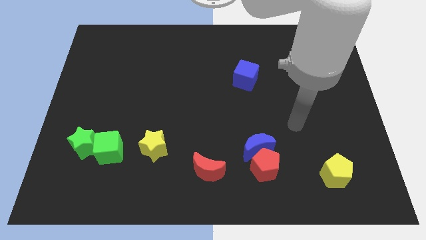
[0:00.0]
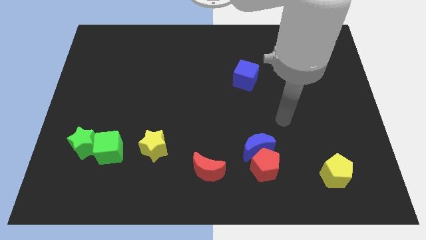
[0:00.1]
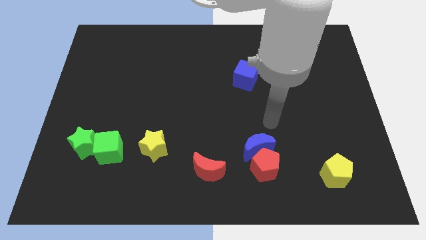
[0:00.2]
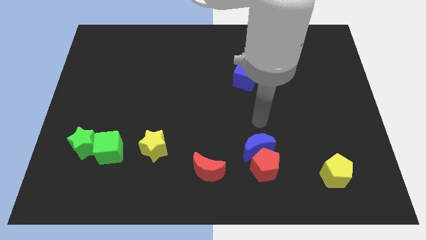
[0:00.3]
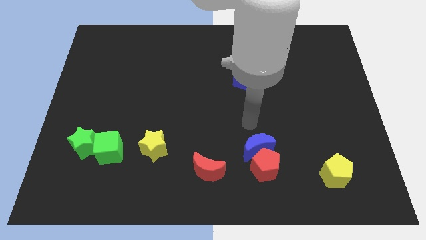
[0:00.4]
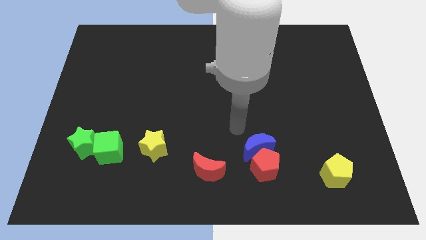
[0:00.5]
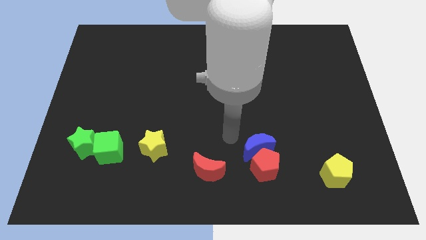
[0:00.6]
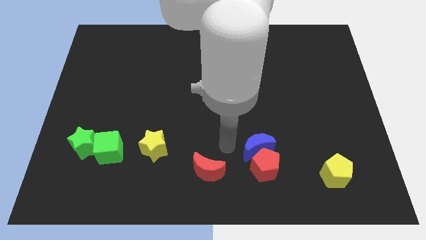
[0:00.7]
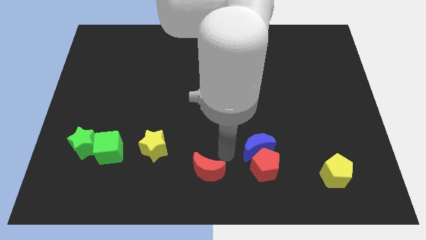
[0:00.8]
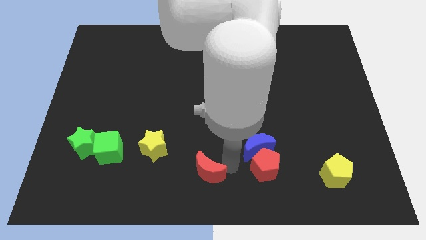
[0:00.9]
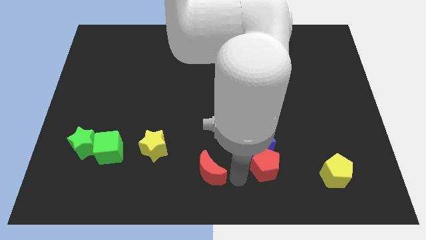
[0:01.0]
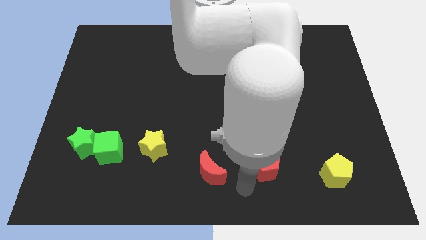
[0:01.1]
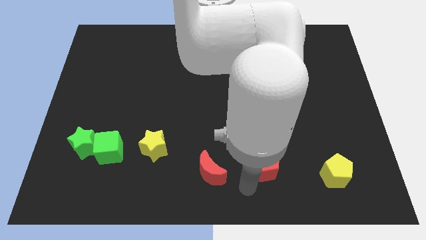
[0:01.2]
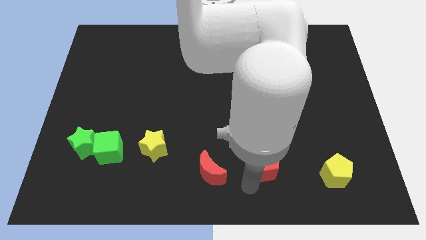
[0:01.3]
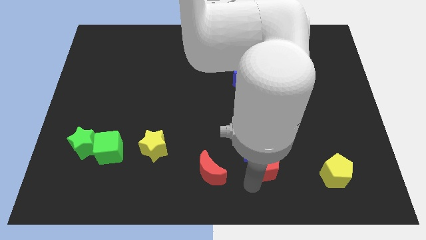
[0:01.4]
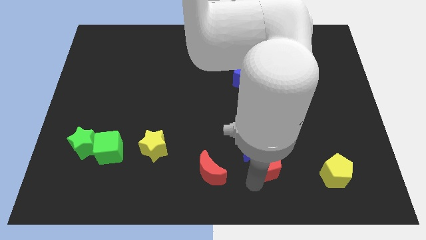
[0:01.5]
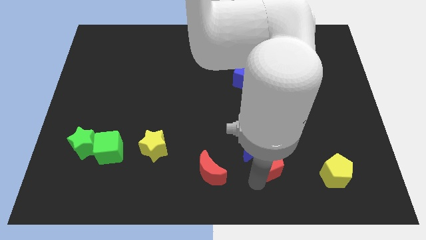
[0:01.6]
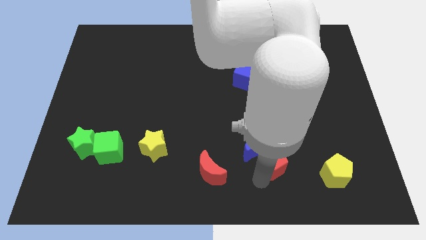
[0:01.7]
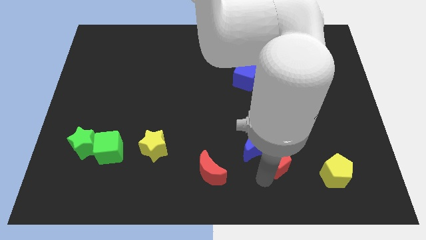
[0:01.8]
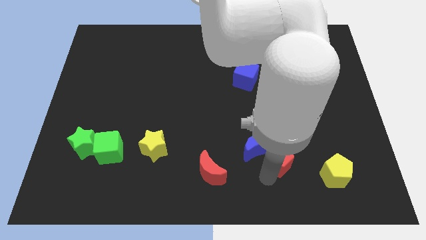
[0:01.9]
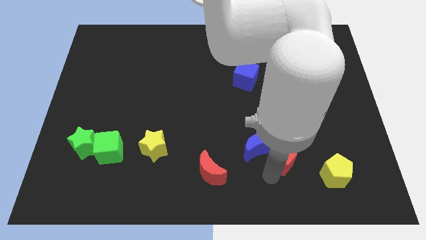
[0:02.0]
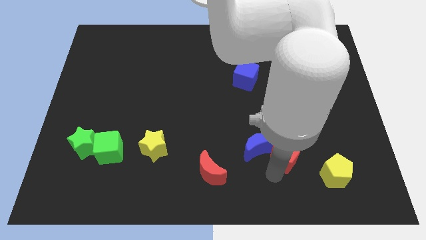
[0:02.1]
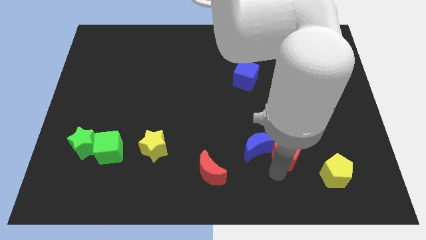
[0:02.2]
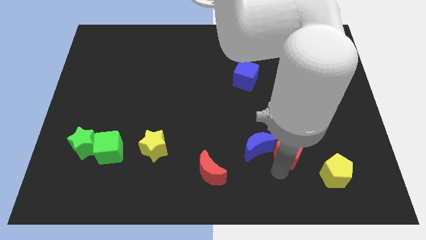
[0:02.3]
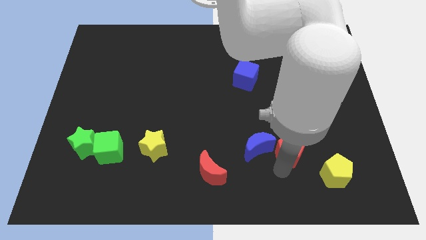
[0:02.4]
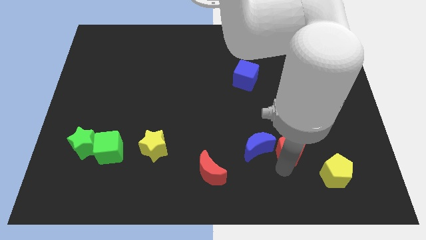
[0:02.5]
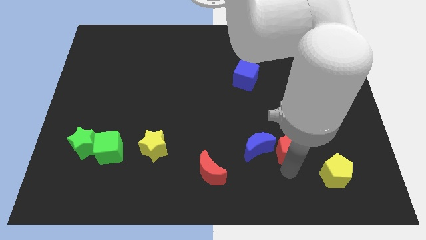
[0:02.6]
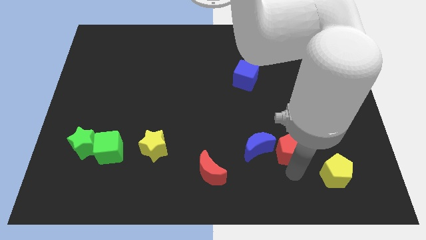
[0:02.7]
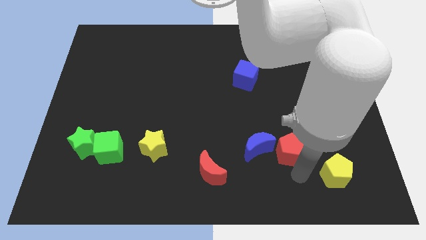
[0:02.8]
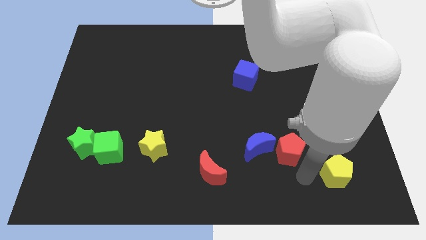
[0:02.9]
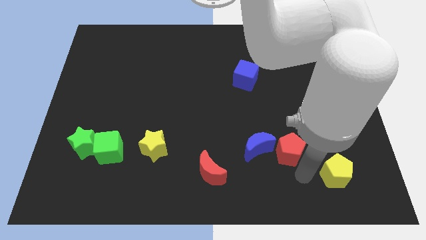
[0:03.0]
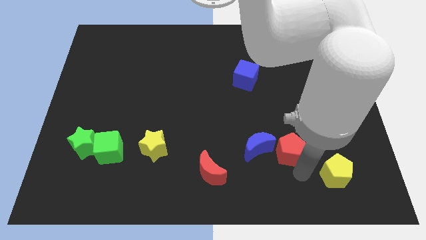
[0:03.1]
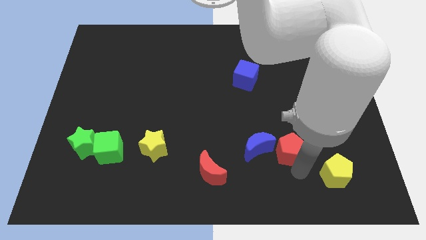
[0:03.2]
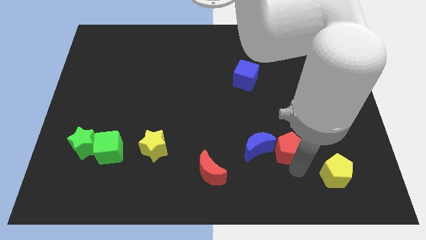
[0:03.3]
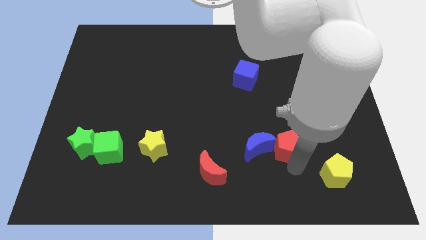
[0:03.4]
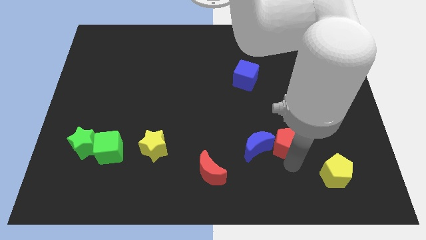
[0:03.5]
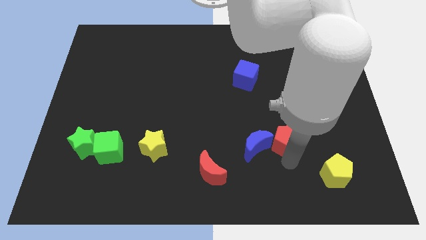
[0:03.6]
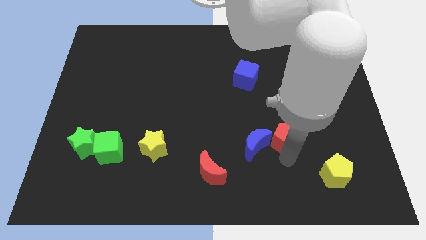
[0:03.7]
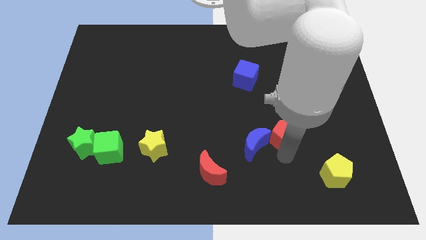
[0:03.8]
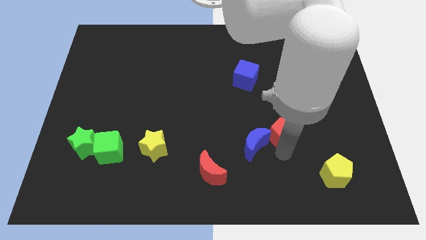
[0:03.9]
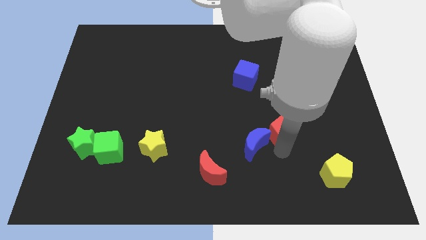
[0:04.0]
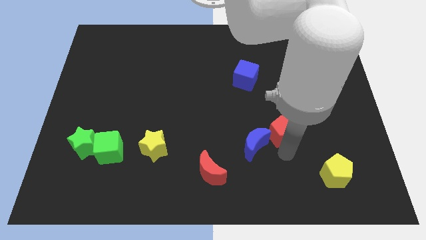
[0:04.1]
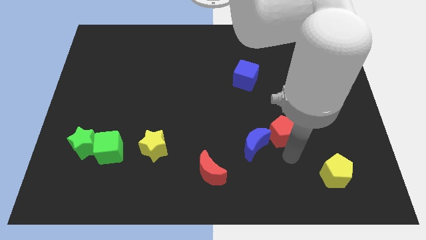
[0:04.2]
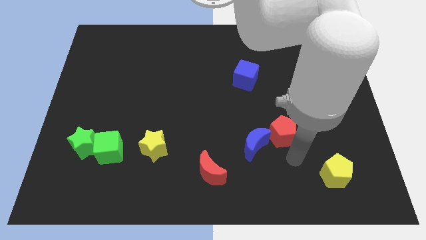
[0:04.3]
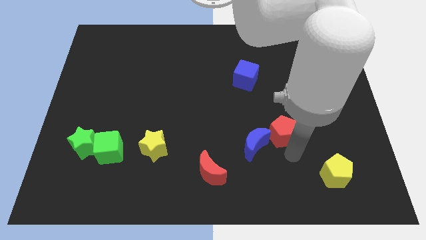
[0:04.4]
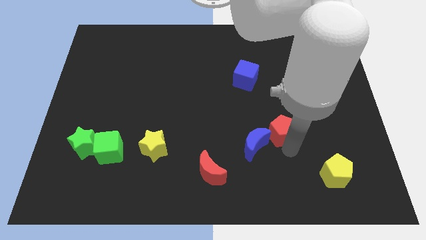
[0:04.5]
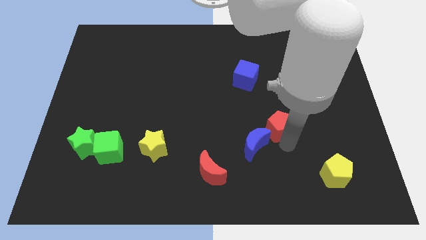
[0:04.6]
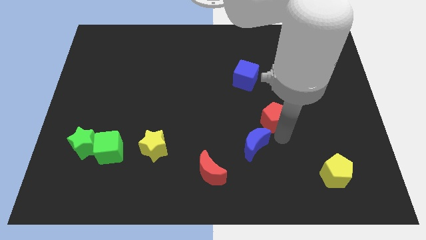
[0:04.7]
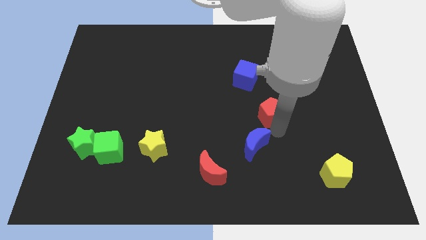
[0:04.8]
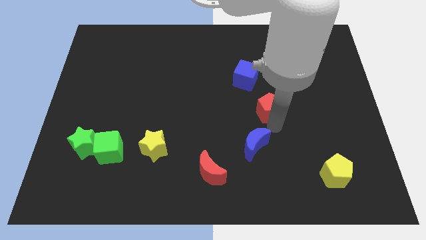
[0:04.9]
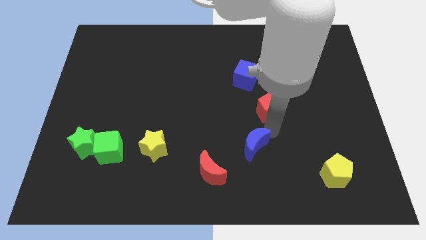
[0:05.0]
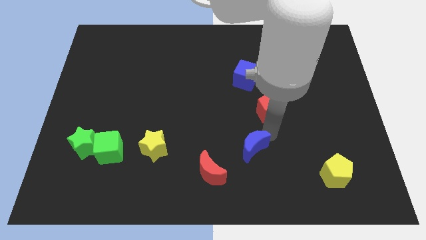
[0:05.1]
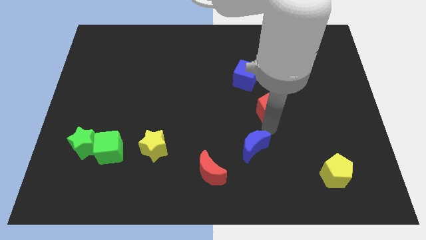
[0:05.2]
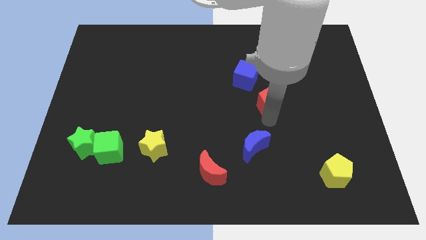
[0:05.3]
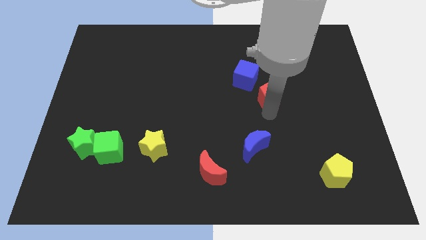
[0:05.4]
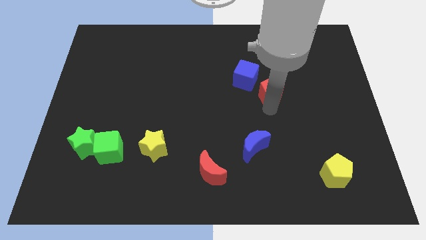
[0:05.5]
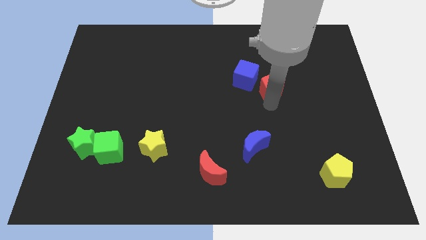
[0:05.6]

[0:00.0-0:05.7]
slide the red pentagon upwards

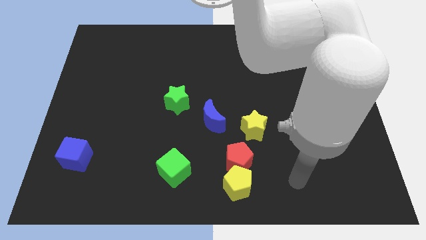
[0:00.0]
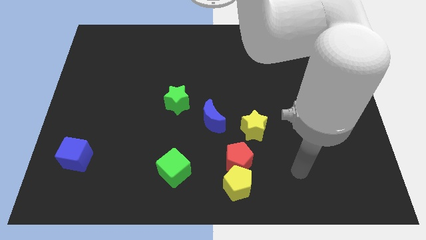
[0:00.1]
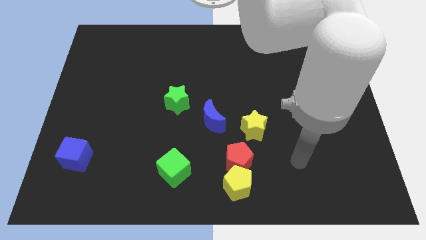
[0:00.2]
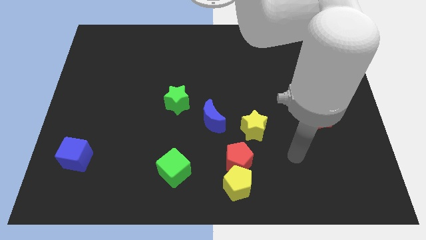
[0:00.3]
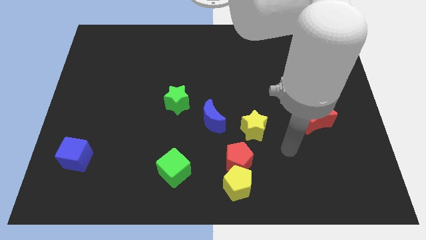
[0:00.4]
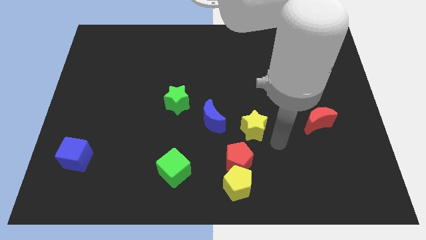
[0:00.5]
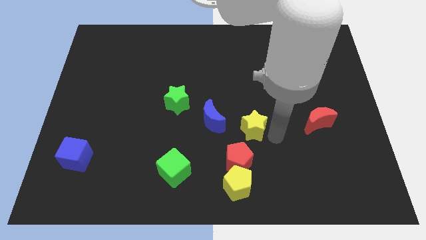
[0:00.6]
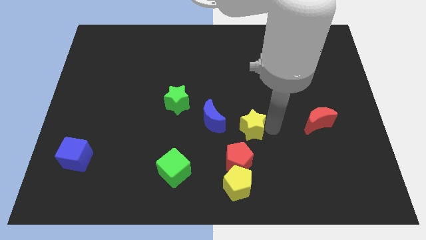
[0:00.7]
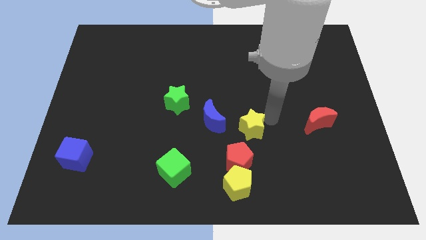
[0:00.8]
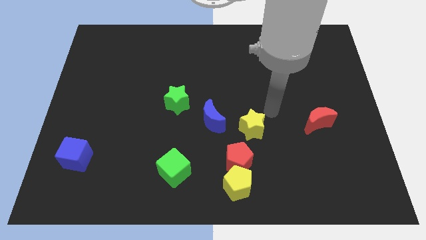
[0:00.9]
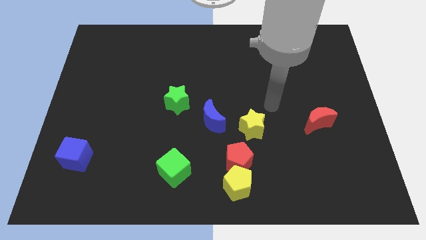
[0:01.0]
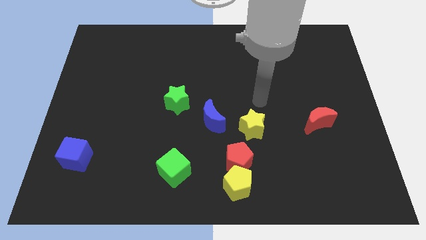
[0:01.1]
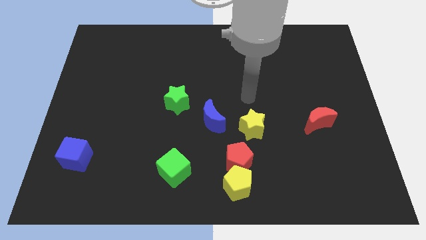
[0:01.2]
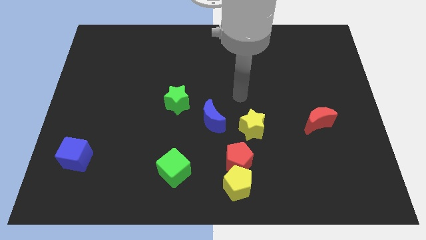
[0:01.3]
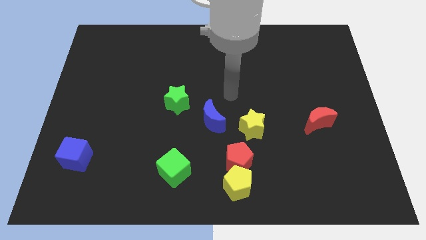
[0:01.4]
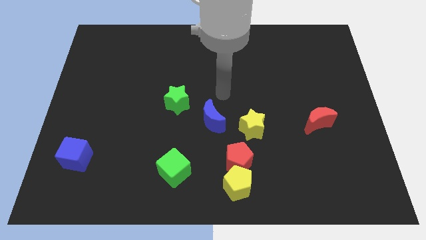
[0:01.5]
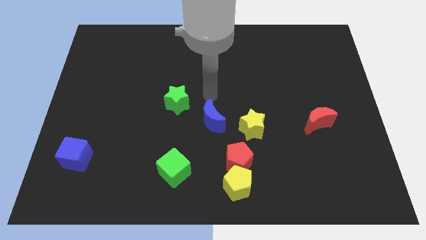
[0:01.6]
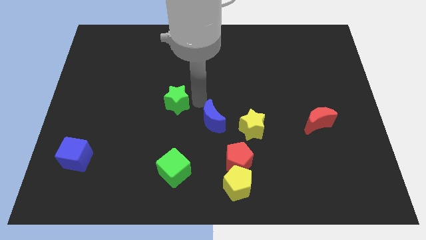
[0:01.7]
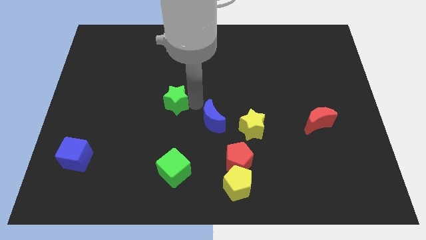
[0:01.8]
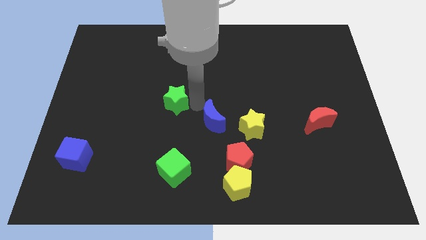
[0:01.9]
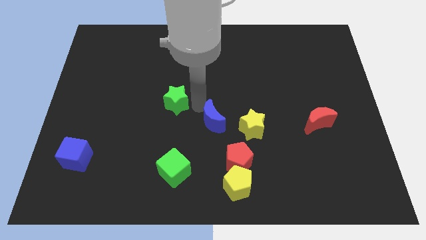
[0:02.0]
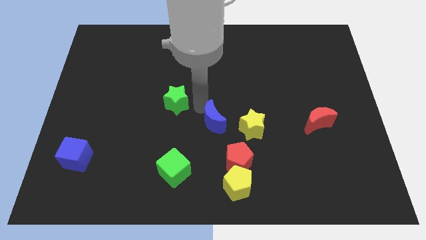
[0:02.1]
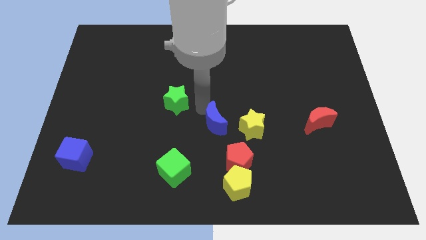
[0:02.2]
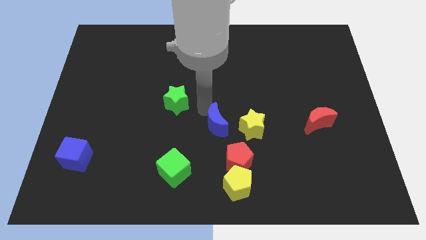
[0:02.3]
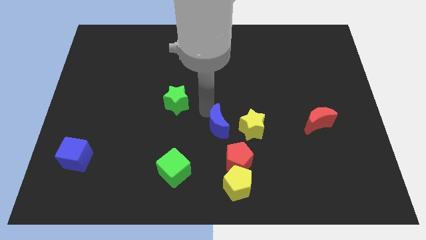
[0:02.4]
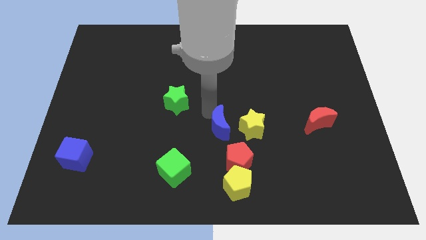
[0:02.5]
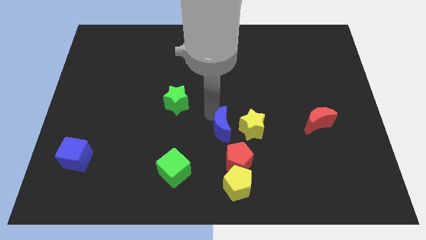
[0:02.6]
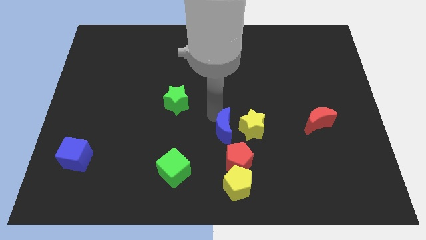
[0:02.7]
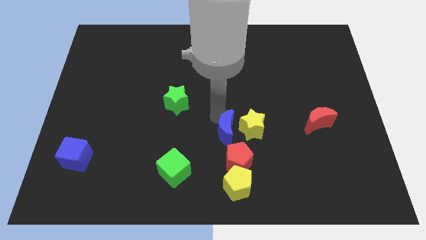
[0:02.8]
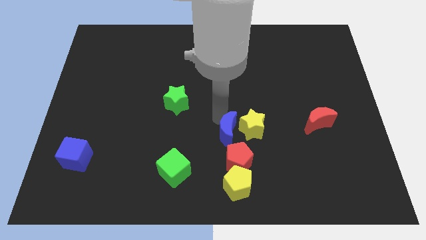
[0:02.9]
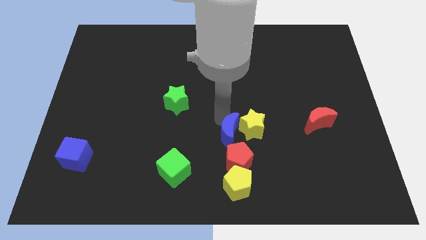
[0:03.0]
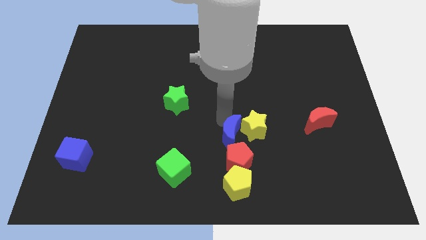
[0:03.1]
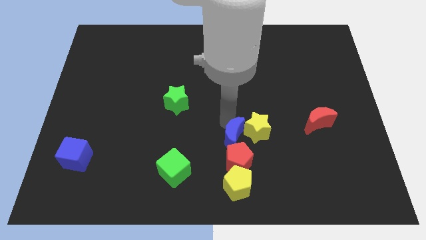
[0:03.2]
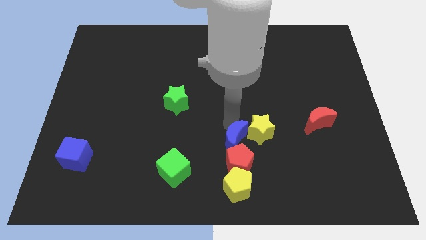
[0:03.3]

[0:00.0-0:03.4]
slide the blue moon a little bit down and right diagonally
